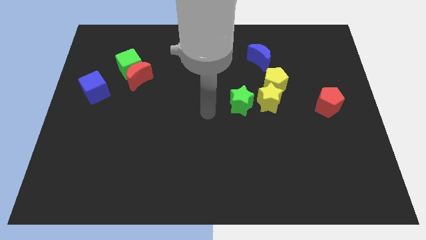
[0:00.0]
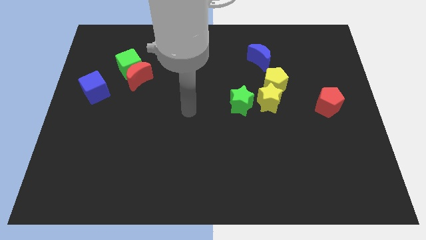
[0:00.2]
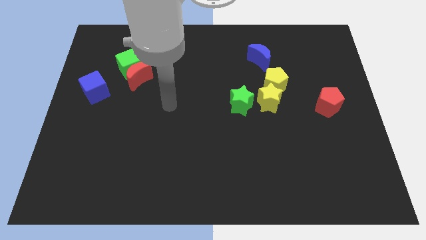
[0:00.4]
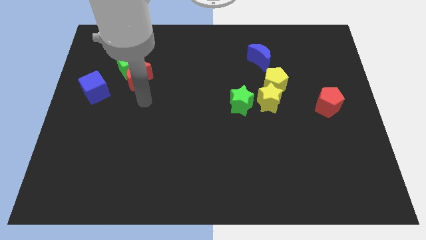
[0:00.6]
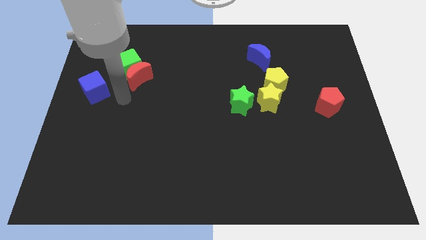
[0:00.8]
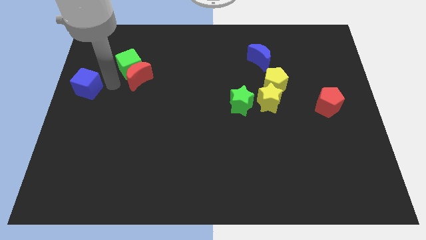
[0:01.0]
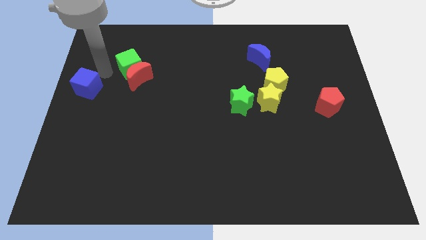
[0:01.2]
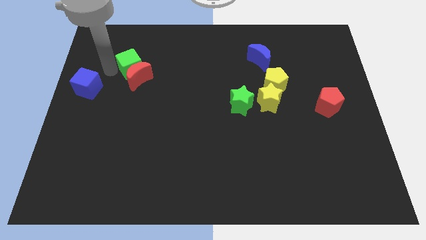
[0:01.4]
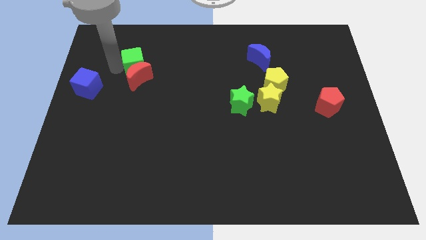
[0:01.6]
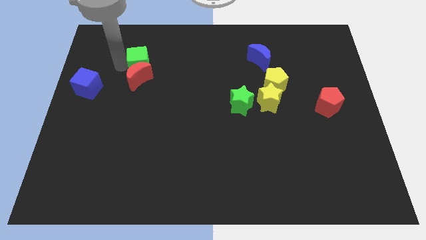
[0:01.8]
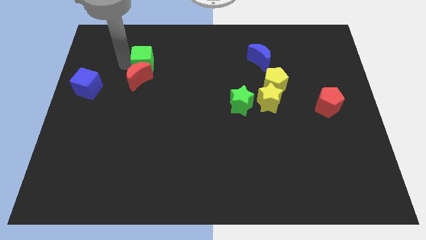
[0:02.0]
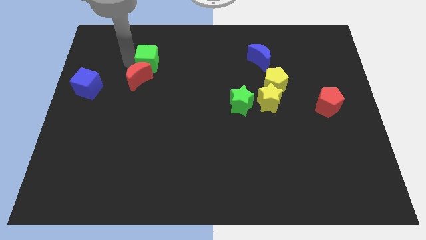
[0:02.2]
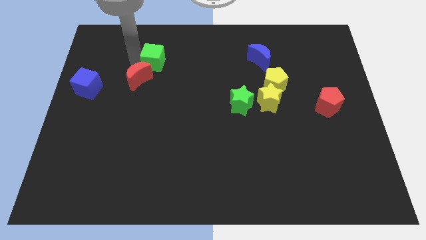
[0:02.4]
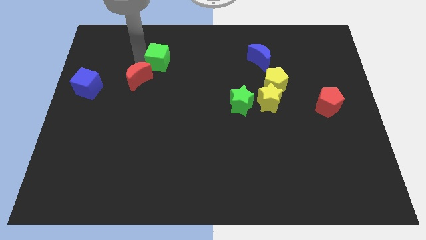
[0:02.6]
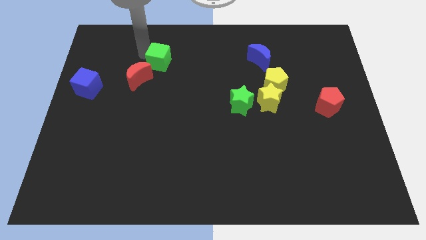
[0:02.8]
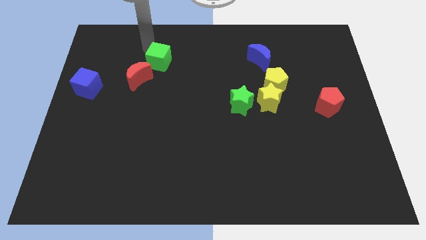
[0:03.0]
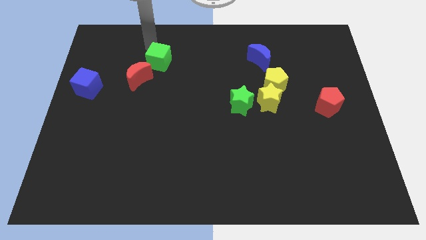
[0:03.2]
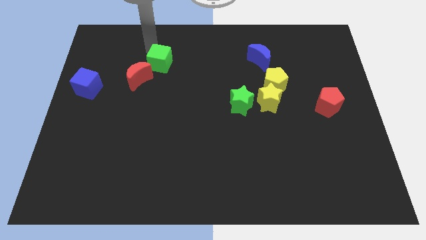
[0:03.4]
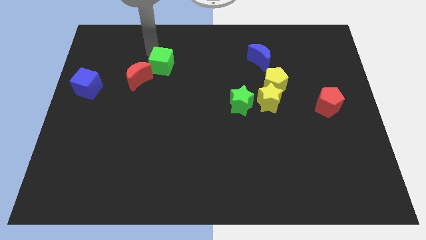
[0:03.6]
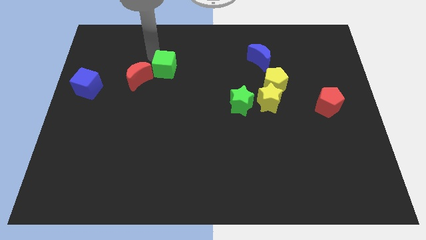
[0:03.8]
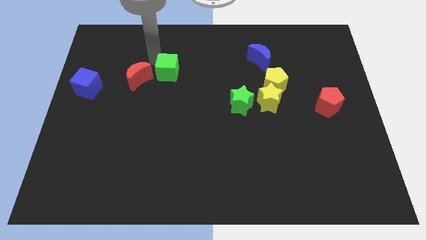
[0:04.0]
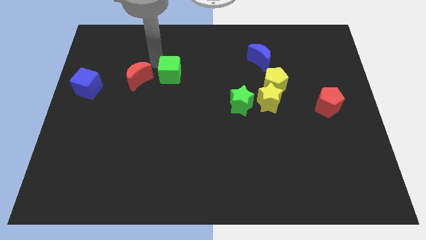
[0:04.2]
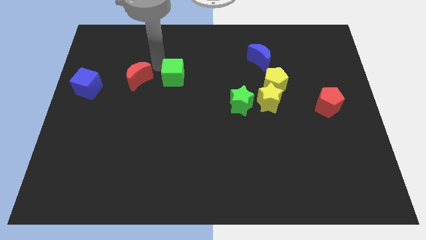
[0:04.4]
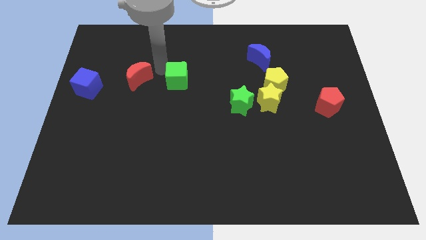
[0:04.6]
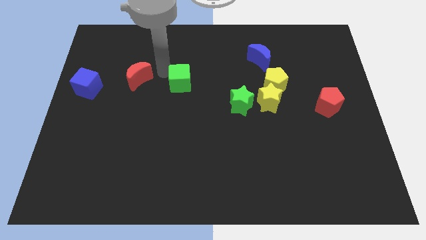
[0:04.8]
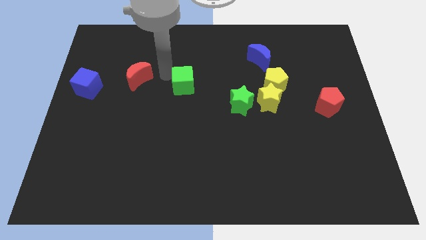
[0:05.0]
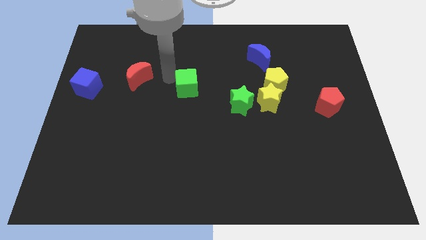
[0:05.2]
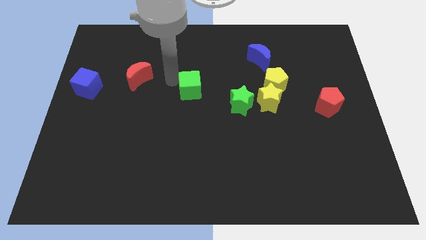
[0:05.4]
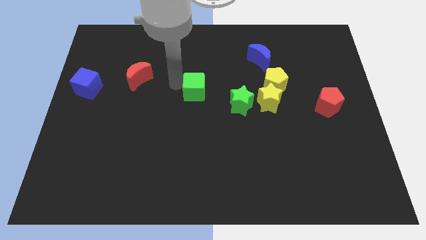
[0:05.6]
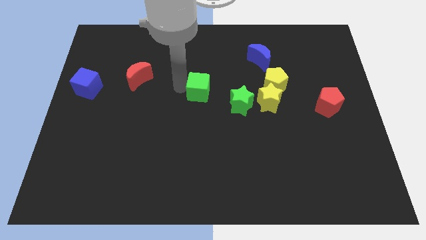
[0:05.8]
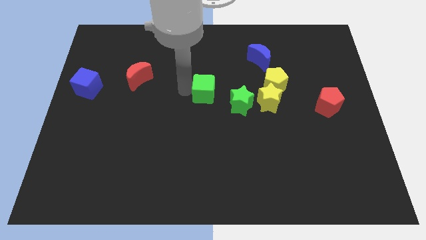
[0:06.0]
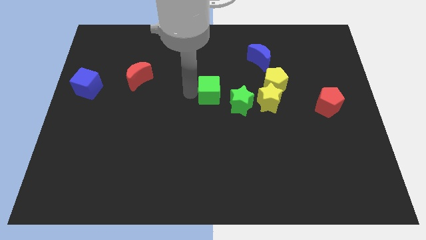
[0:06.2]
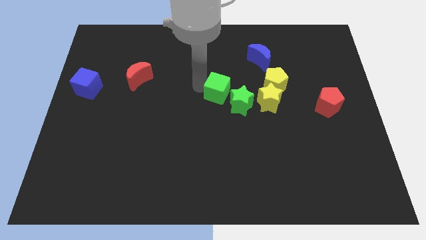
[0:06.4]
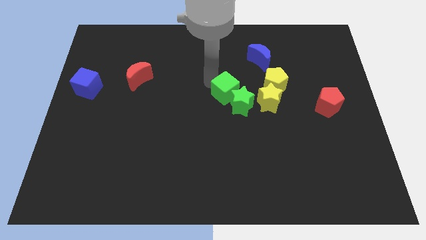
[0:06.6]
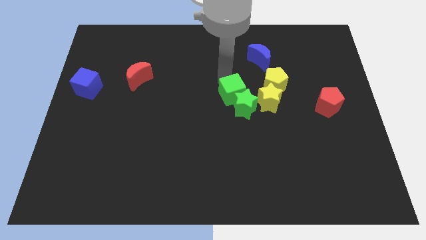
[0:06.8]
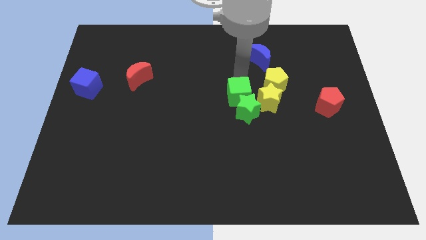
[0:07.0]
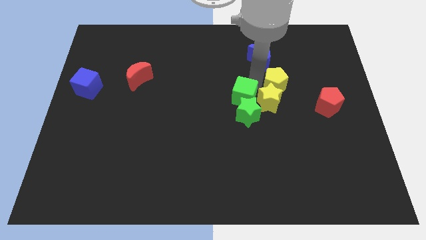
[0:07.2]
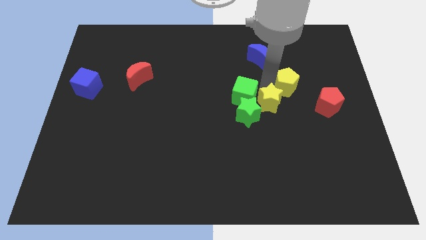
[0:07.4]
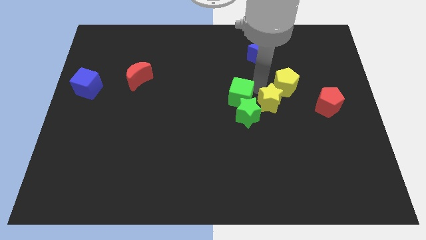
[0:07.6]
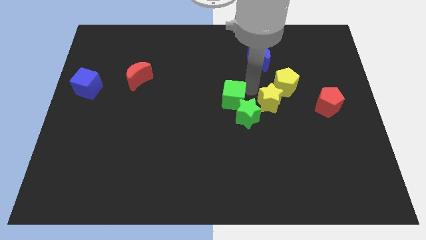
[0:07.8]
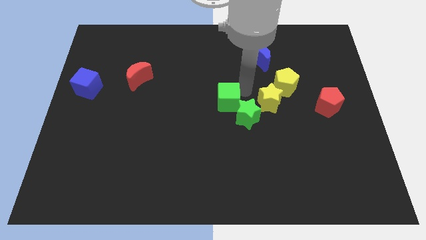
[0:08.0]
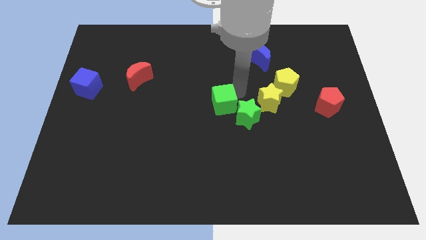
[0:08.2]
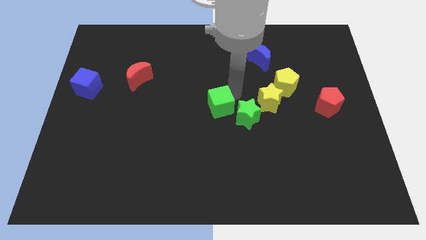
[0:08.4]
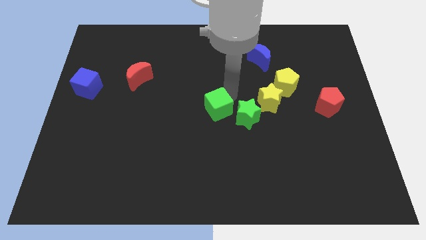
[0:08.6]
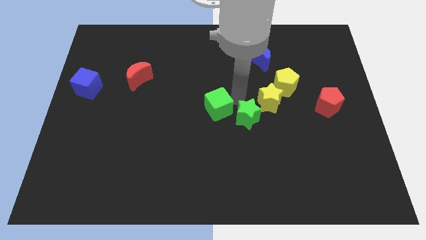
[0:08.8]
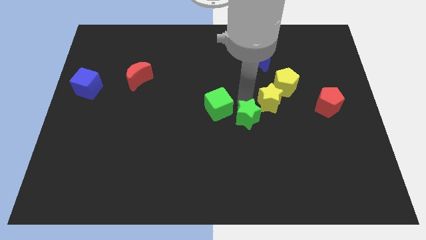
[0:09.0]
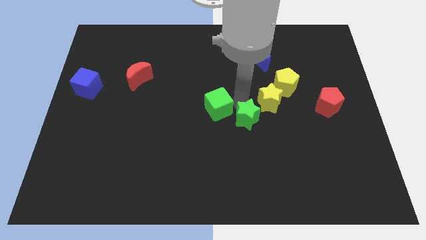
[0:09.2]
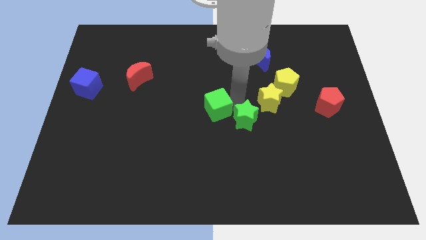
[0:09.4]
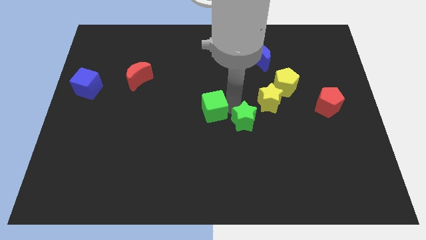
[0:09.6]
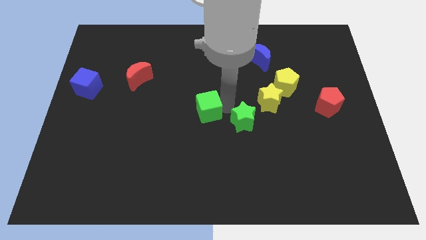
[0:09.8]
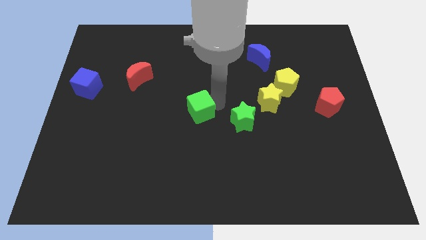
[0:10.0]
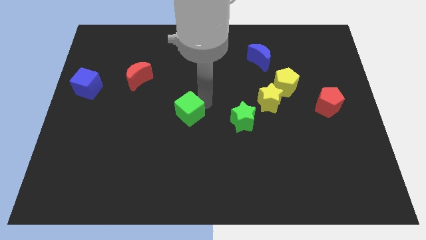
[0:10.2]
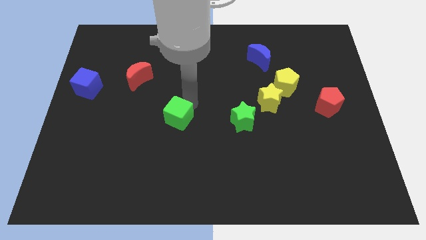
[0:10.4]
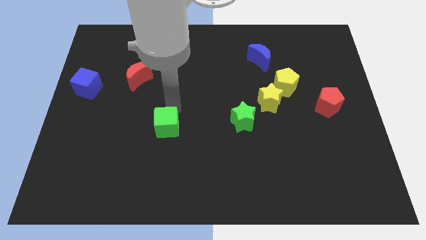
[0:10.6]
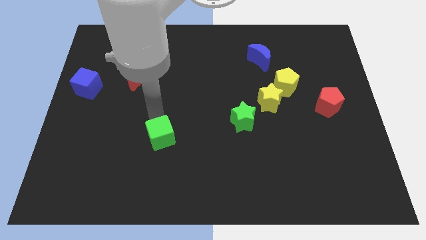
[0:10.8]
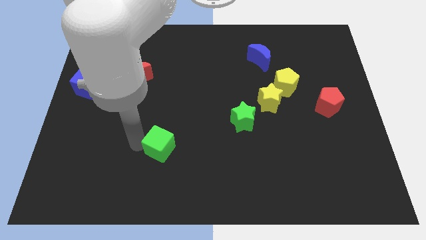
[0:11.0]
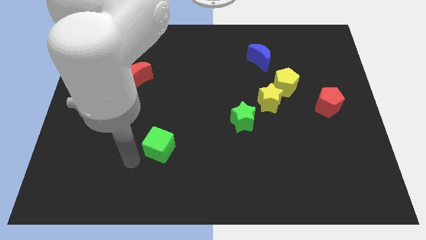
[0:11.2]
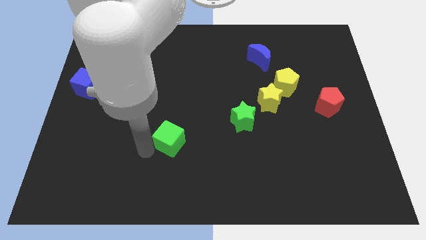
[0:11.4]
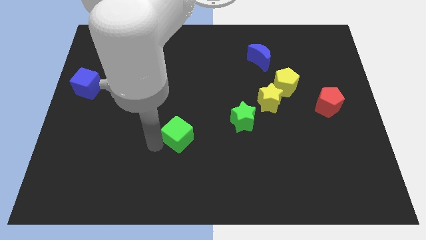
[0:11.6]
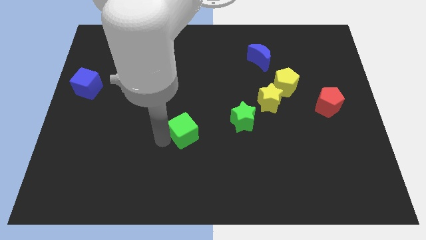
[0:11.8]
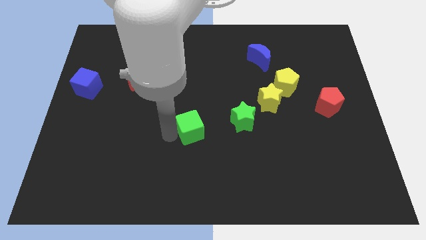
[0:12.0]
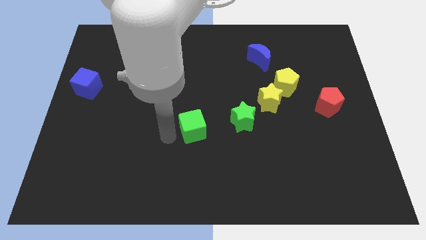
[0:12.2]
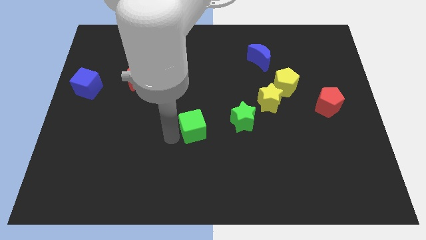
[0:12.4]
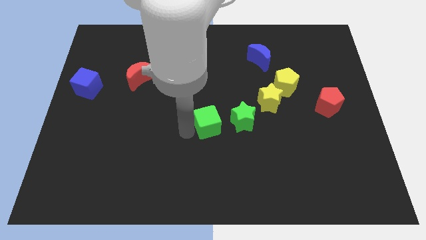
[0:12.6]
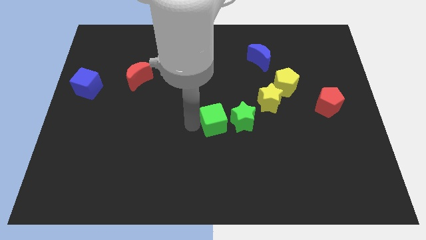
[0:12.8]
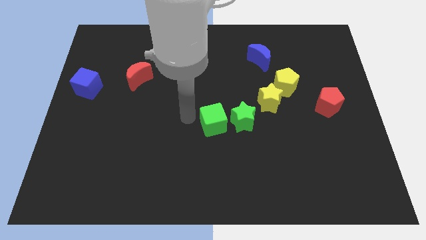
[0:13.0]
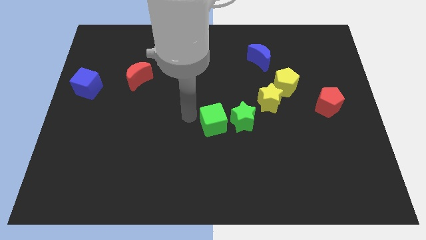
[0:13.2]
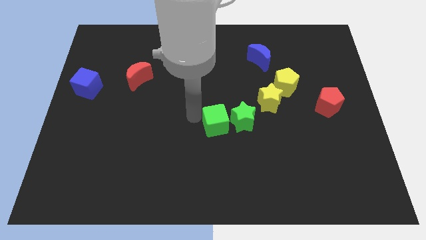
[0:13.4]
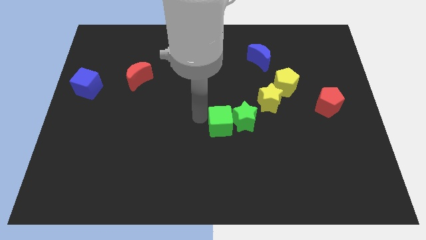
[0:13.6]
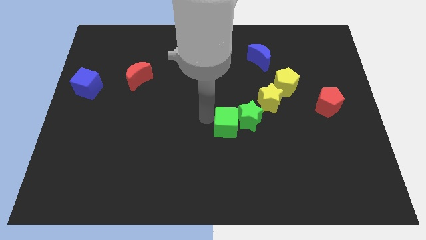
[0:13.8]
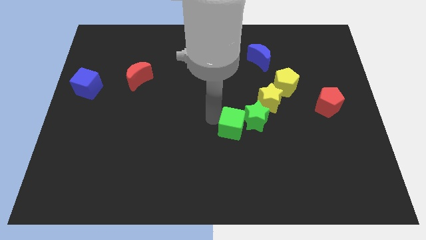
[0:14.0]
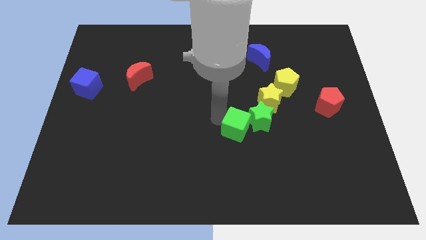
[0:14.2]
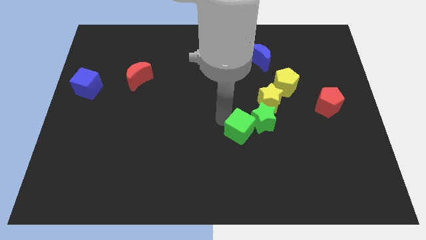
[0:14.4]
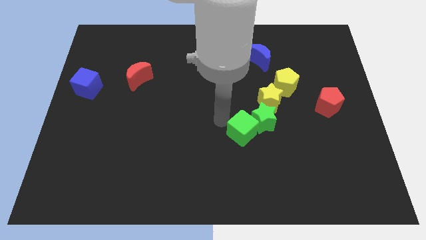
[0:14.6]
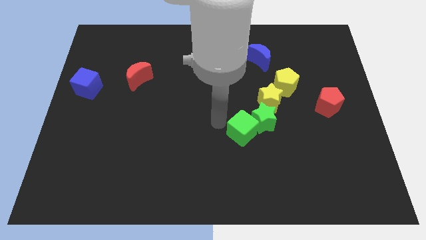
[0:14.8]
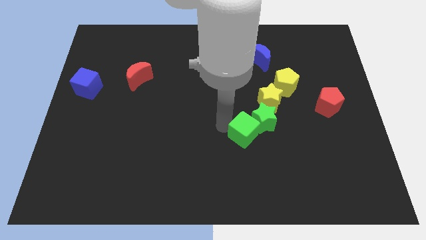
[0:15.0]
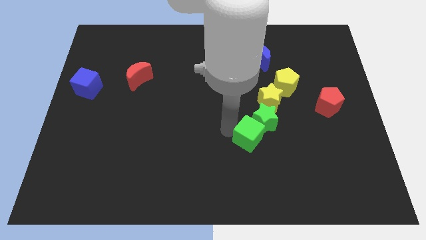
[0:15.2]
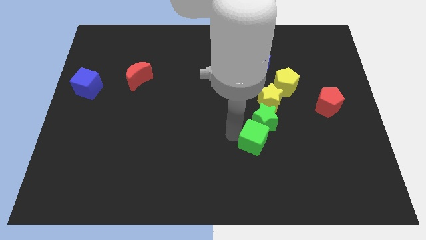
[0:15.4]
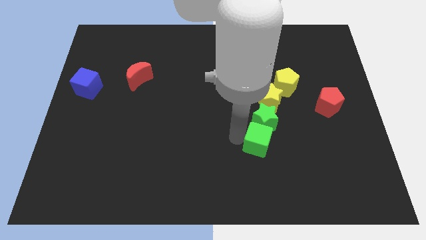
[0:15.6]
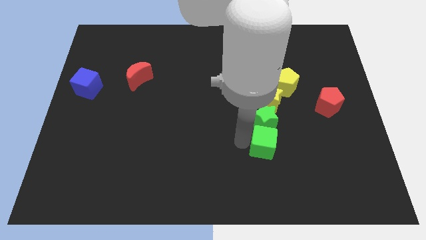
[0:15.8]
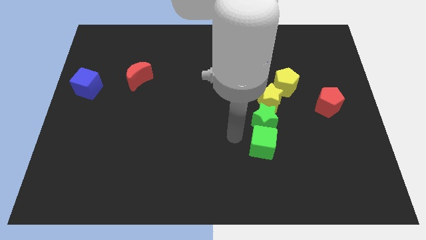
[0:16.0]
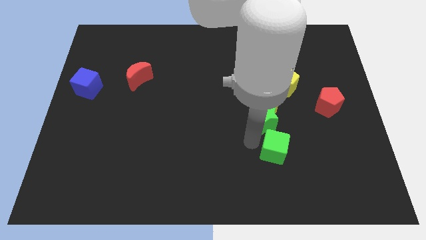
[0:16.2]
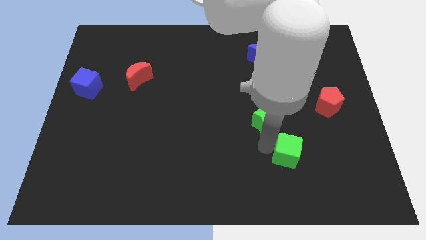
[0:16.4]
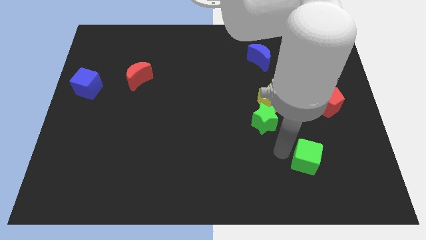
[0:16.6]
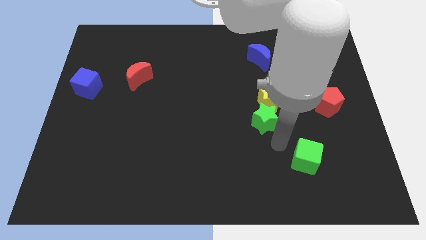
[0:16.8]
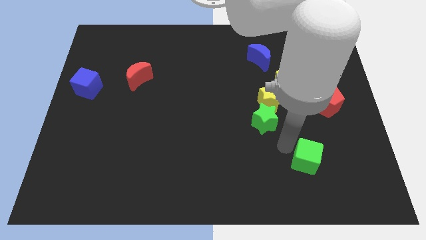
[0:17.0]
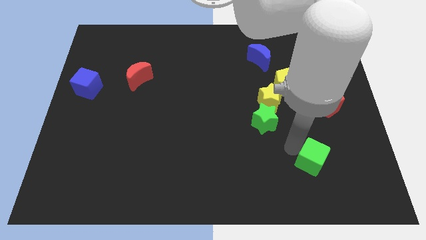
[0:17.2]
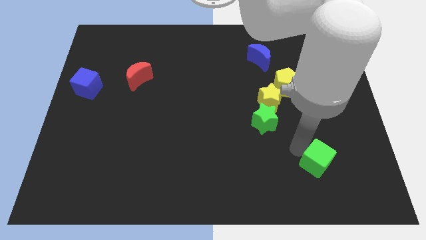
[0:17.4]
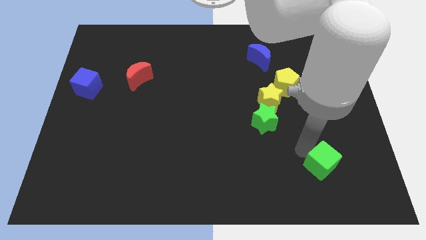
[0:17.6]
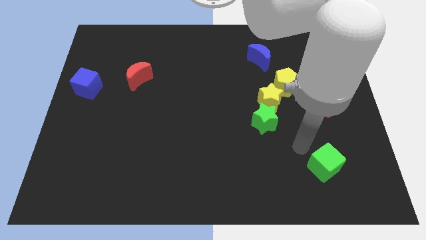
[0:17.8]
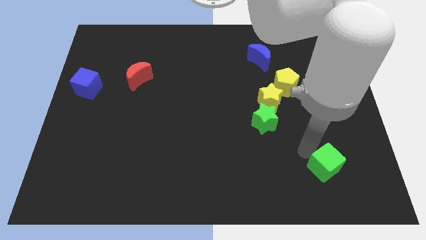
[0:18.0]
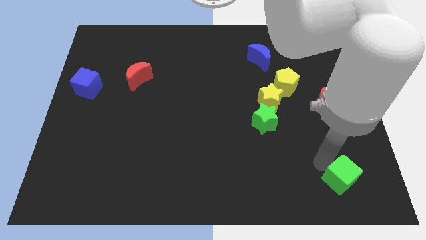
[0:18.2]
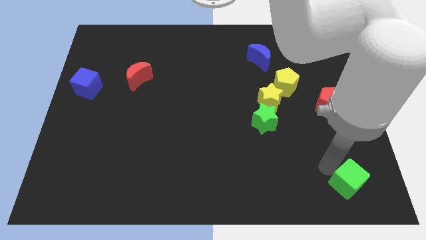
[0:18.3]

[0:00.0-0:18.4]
push the green cube to the bottom right
